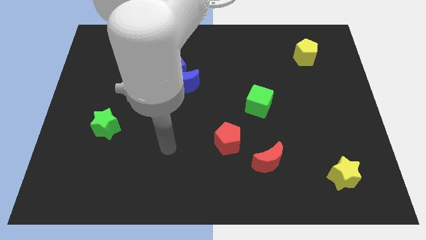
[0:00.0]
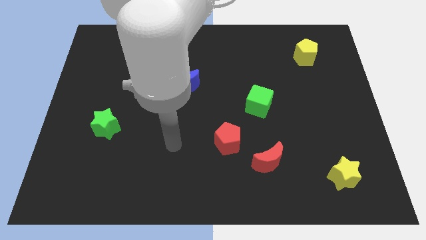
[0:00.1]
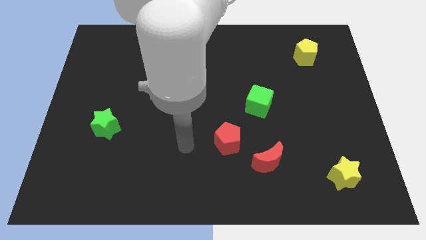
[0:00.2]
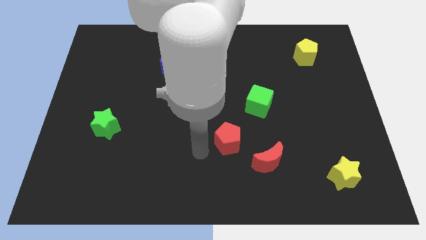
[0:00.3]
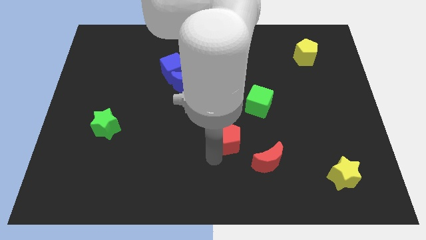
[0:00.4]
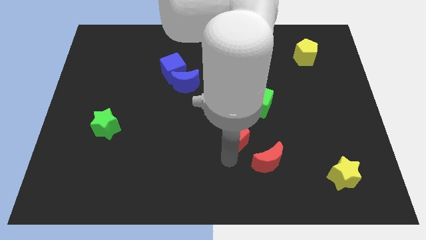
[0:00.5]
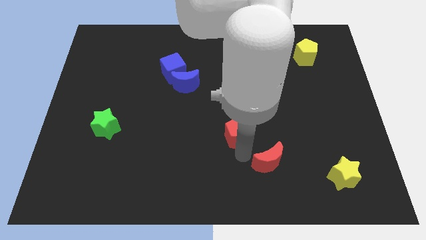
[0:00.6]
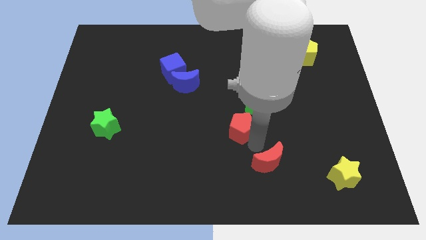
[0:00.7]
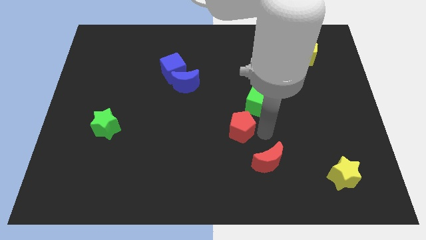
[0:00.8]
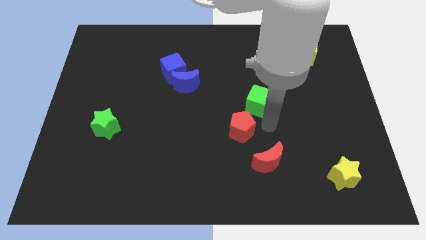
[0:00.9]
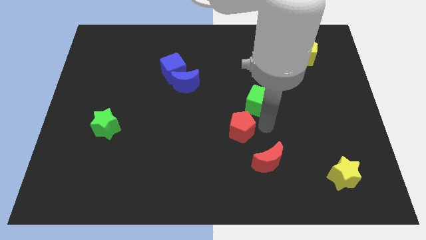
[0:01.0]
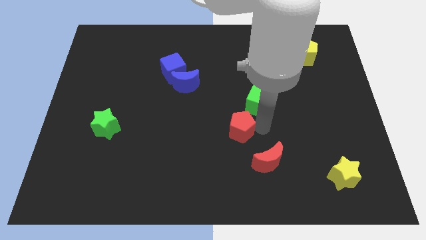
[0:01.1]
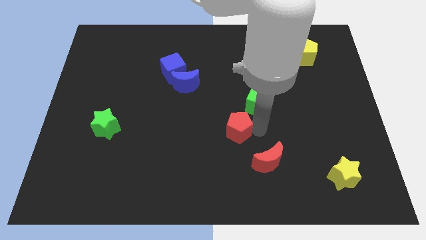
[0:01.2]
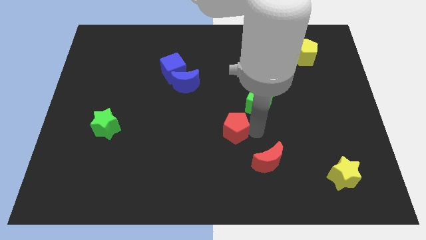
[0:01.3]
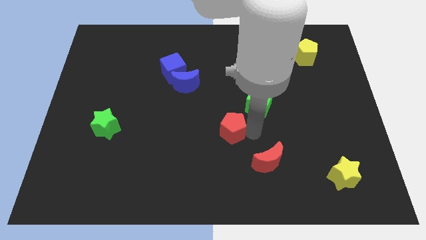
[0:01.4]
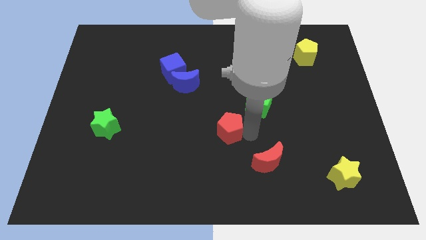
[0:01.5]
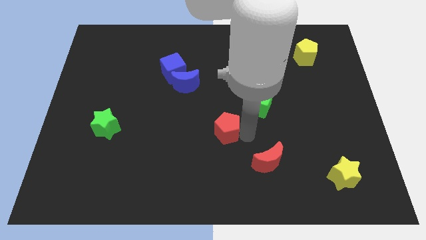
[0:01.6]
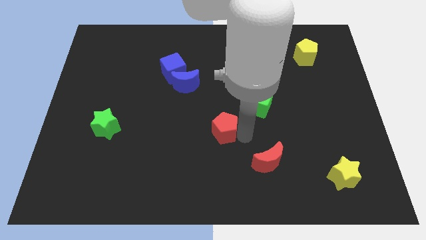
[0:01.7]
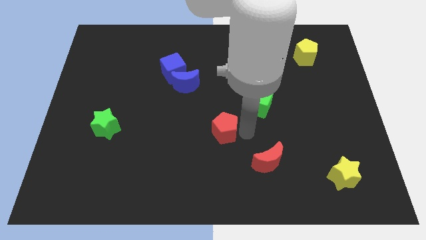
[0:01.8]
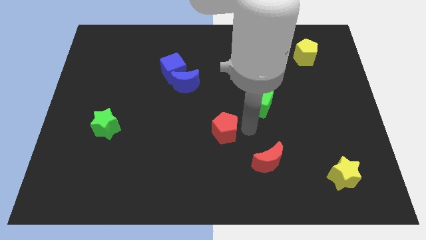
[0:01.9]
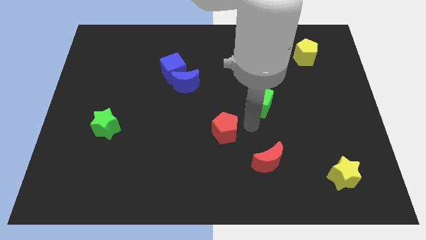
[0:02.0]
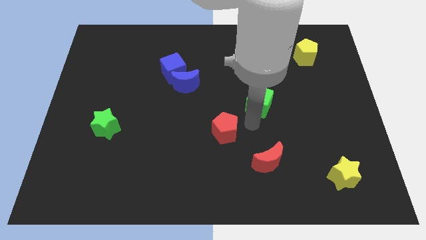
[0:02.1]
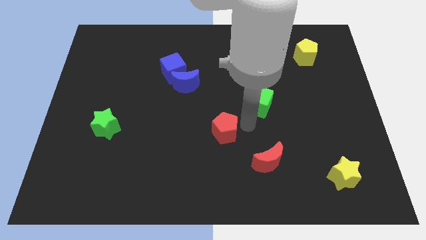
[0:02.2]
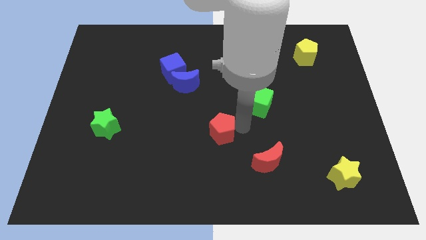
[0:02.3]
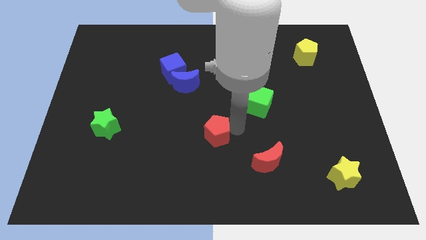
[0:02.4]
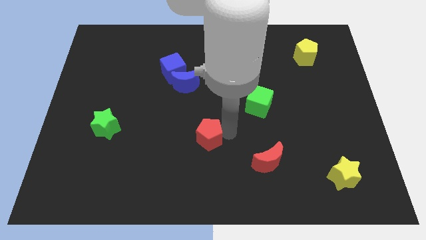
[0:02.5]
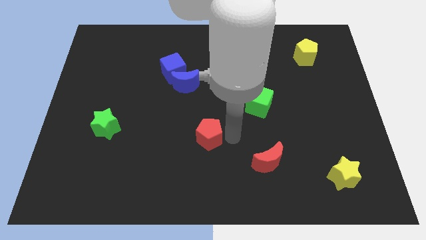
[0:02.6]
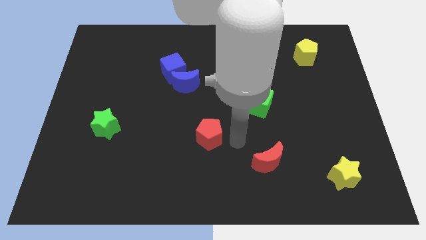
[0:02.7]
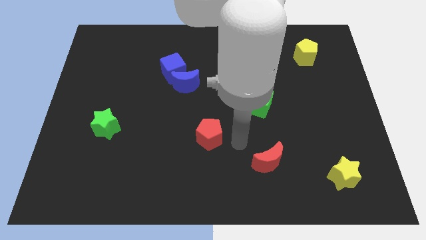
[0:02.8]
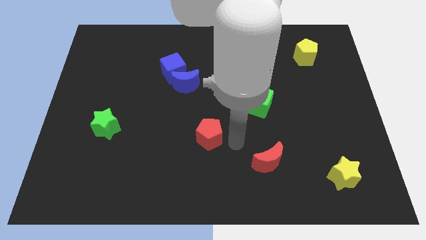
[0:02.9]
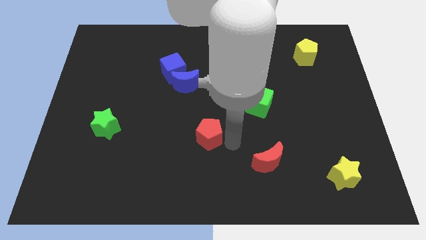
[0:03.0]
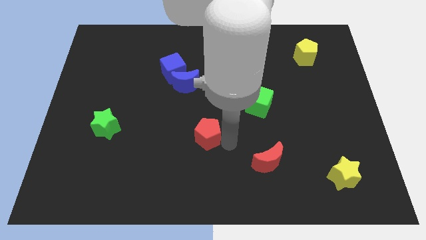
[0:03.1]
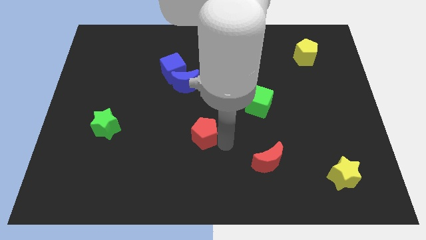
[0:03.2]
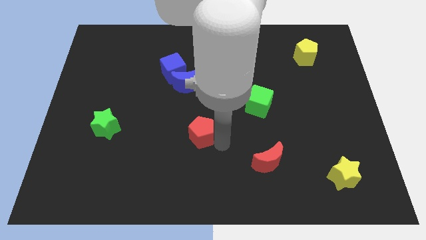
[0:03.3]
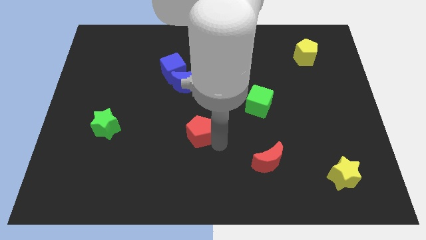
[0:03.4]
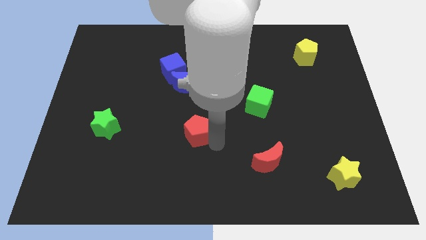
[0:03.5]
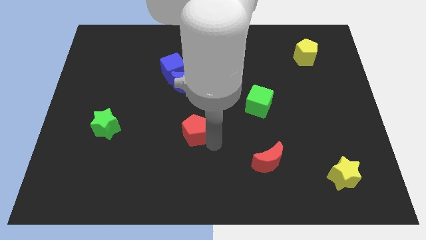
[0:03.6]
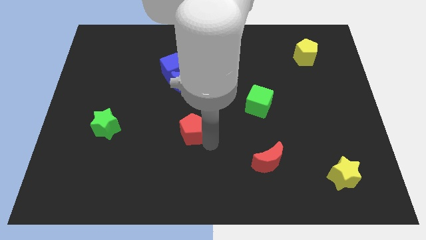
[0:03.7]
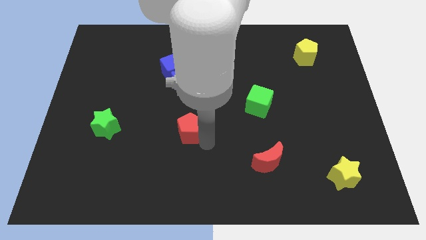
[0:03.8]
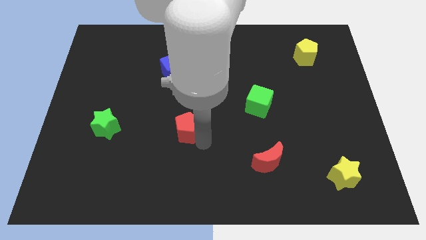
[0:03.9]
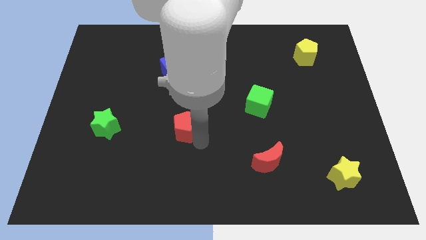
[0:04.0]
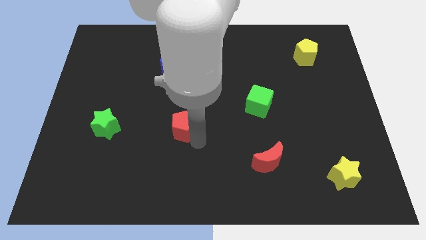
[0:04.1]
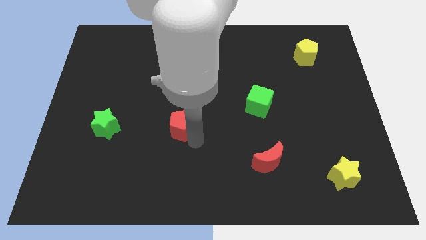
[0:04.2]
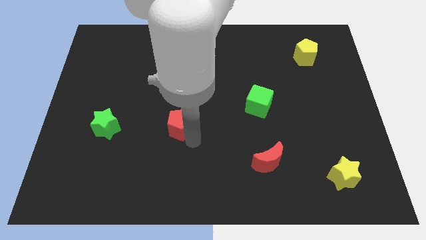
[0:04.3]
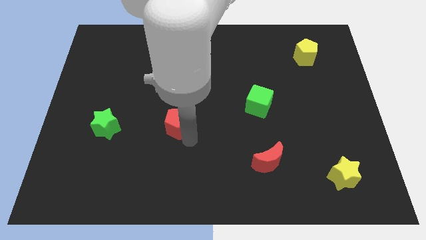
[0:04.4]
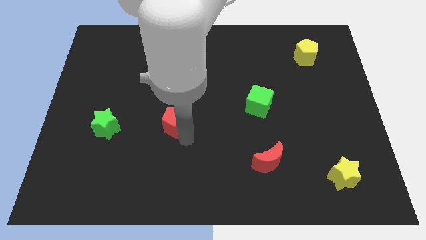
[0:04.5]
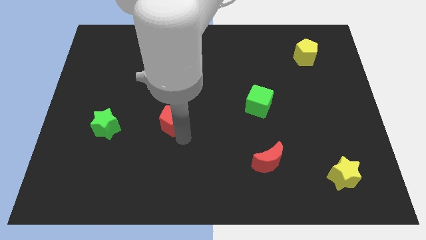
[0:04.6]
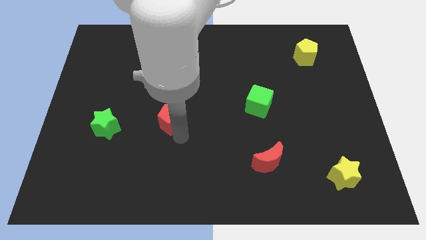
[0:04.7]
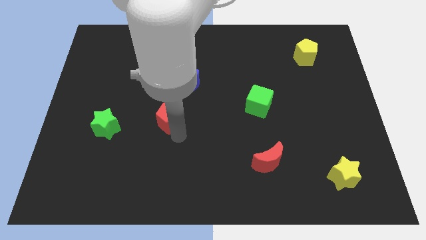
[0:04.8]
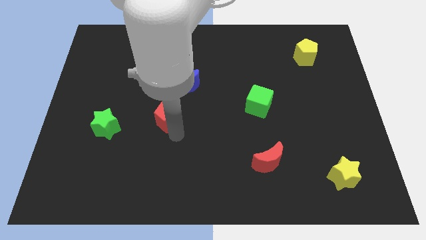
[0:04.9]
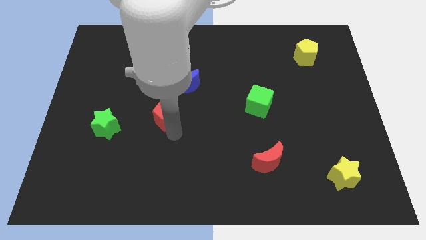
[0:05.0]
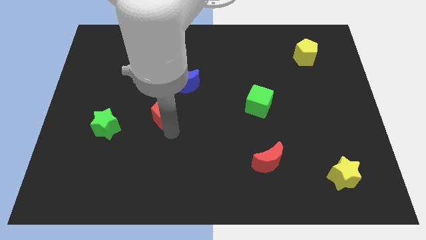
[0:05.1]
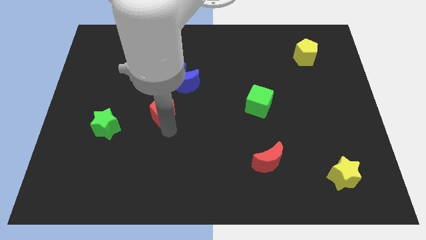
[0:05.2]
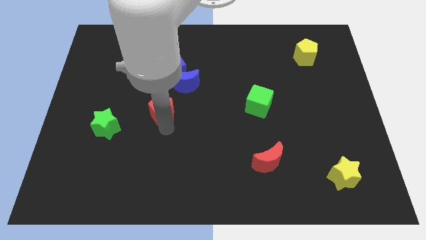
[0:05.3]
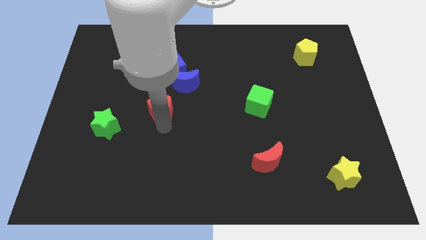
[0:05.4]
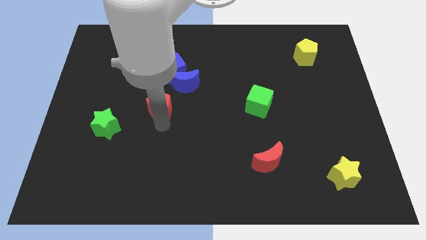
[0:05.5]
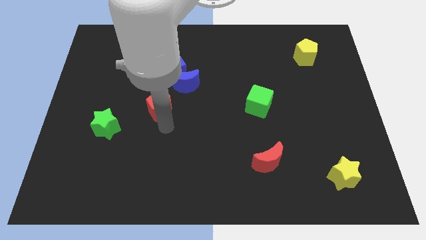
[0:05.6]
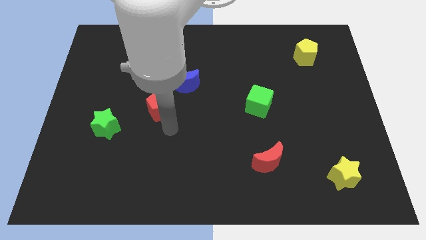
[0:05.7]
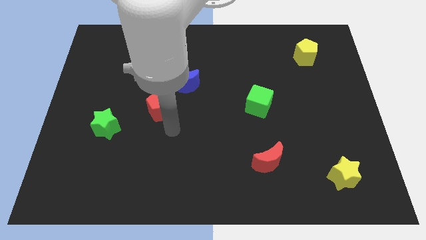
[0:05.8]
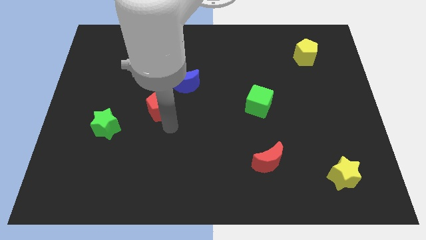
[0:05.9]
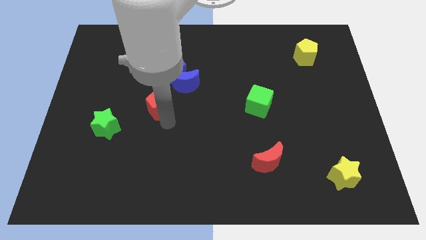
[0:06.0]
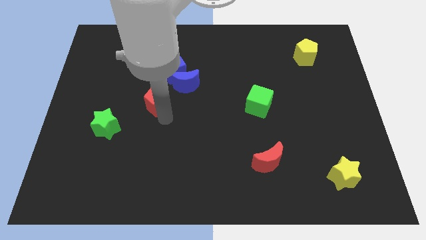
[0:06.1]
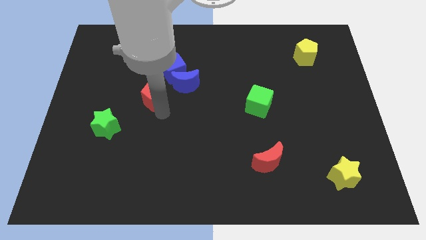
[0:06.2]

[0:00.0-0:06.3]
move the red pentagon upwards and to the left

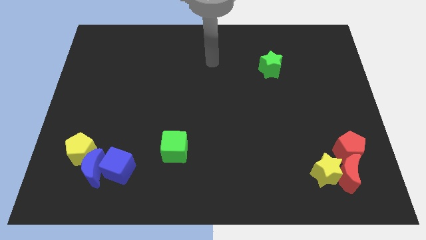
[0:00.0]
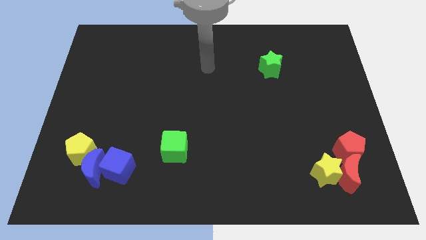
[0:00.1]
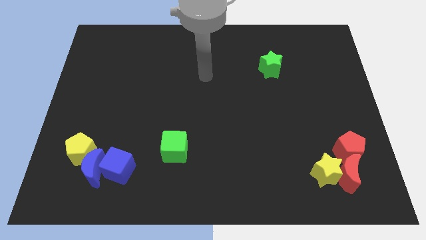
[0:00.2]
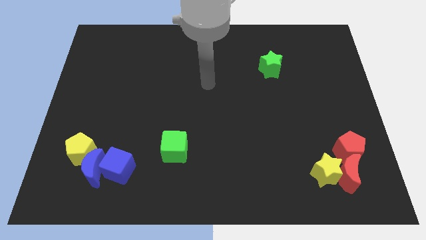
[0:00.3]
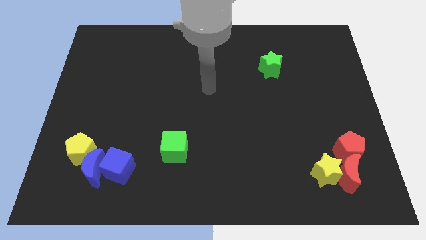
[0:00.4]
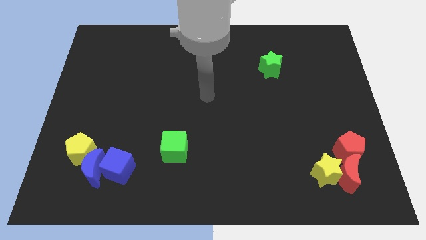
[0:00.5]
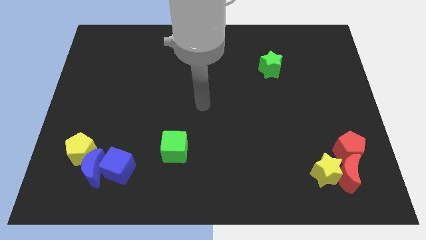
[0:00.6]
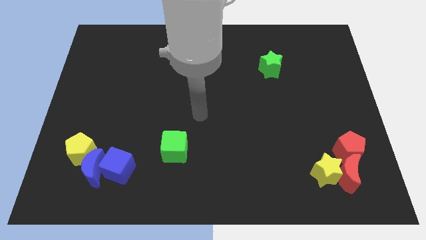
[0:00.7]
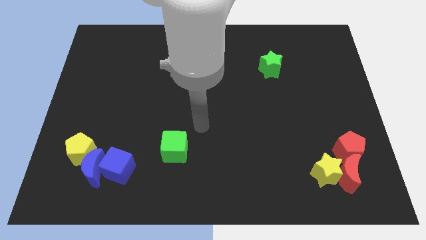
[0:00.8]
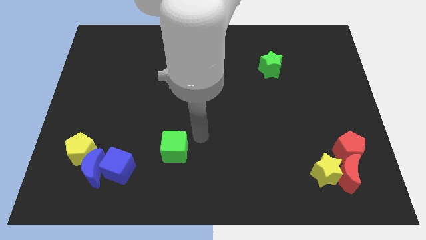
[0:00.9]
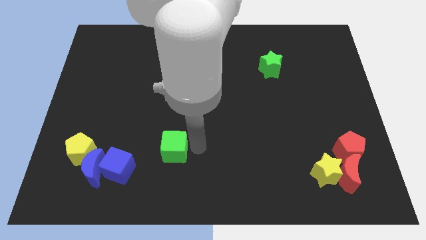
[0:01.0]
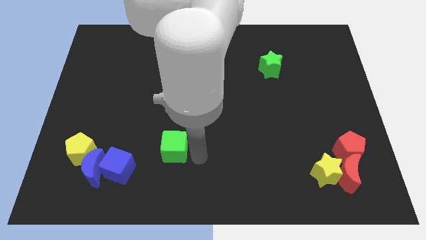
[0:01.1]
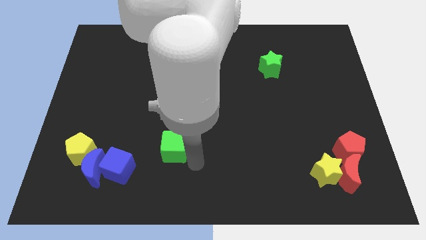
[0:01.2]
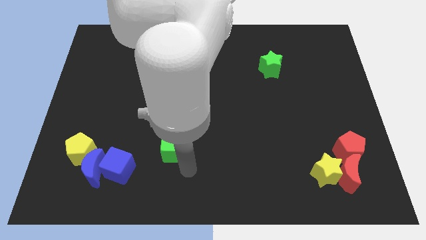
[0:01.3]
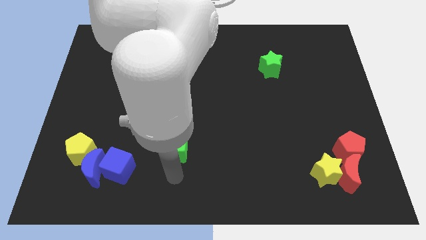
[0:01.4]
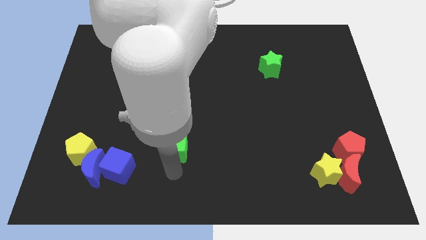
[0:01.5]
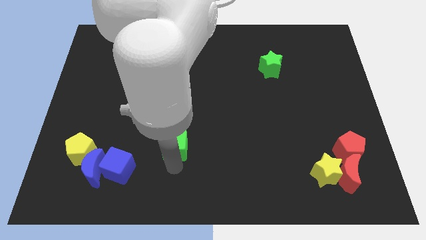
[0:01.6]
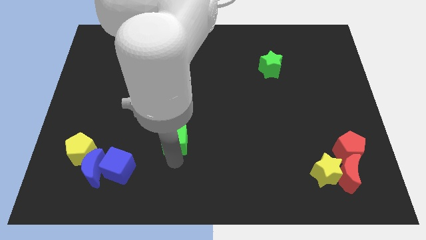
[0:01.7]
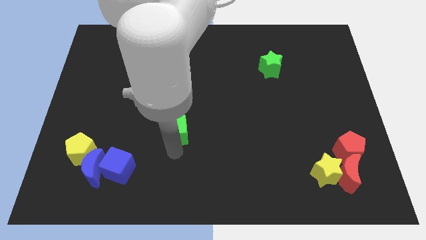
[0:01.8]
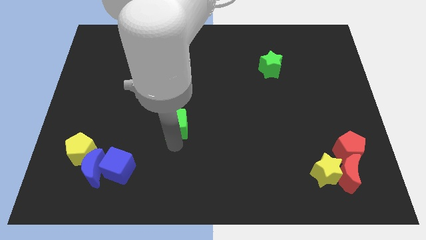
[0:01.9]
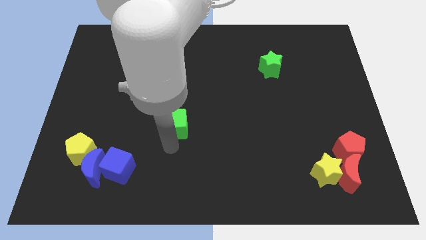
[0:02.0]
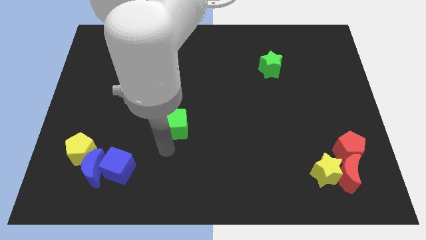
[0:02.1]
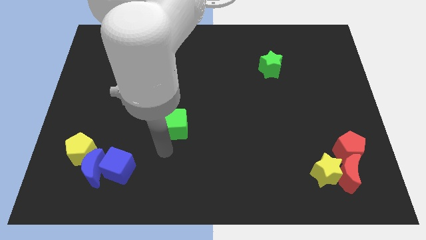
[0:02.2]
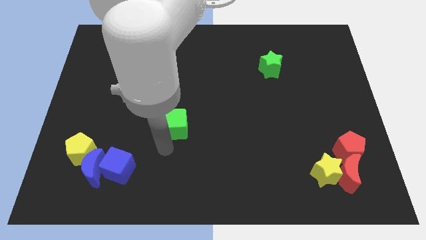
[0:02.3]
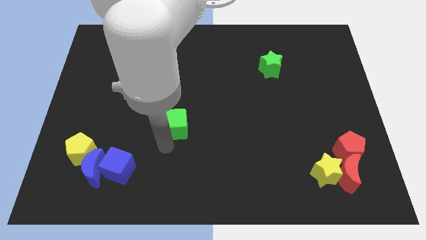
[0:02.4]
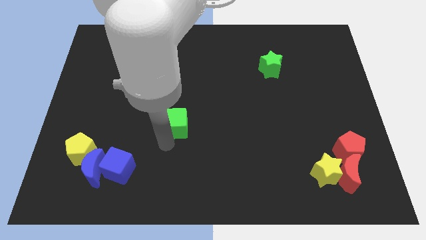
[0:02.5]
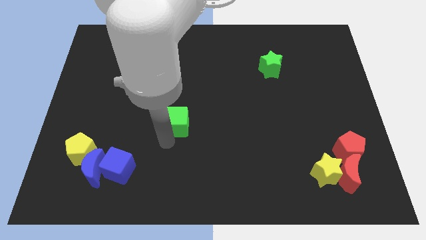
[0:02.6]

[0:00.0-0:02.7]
slide the green cube up a little bit
